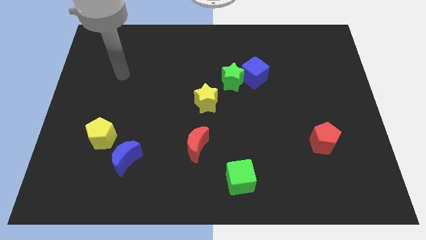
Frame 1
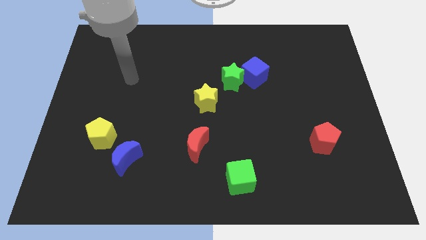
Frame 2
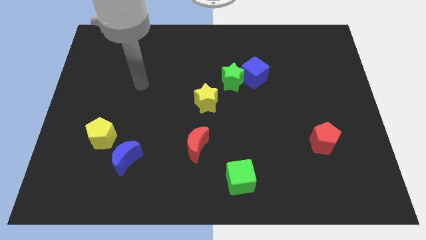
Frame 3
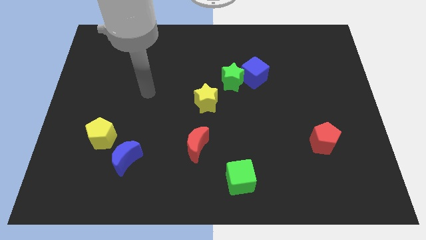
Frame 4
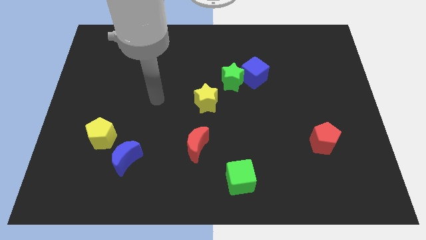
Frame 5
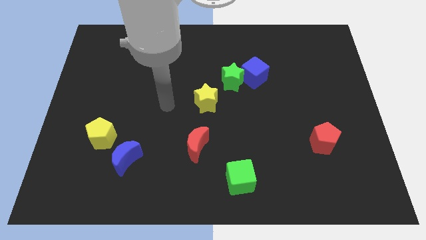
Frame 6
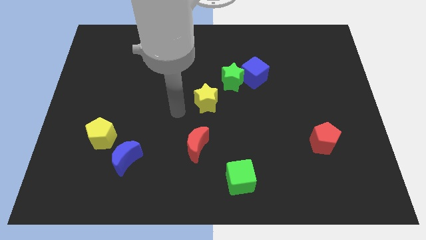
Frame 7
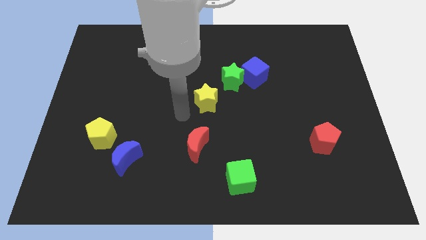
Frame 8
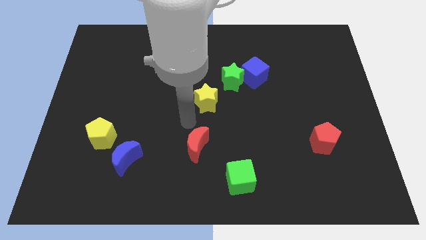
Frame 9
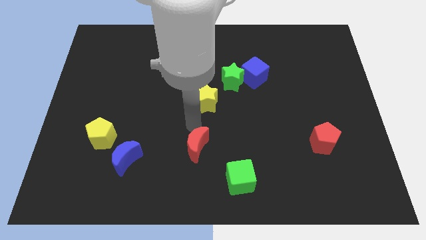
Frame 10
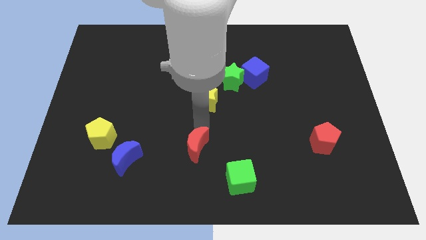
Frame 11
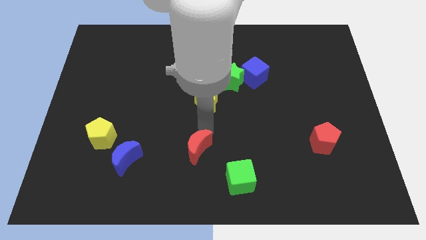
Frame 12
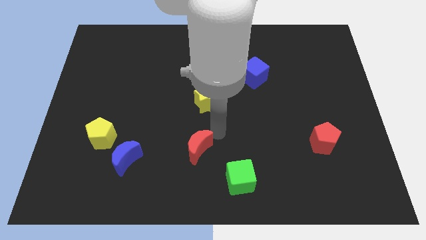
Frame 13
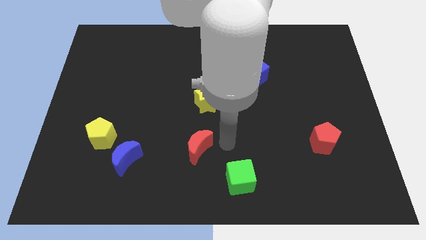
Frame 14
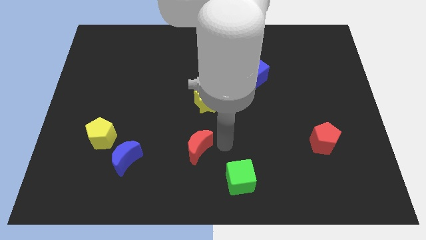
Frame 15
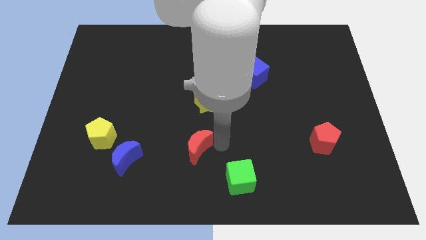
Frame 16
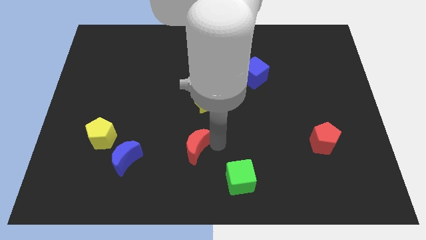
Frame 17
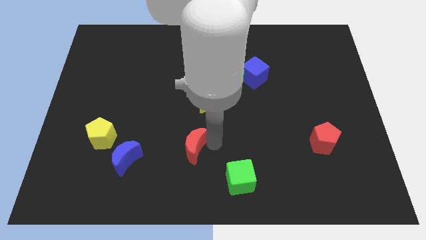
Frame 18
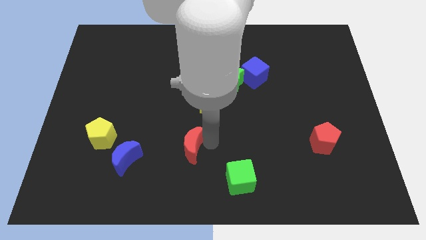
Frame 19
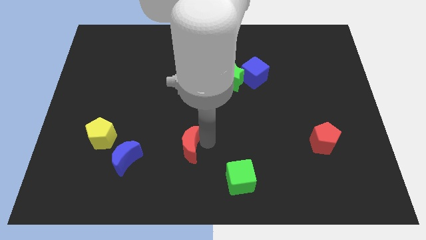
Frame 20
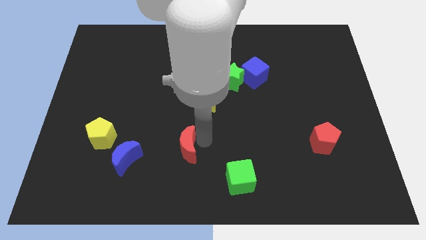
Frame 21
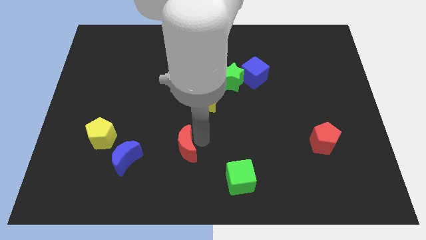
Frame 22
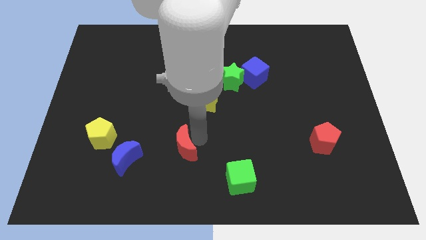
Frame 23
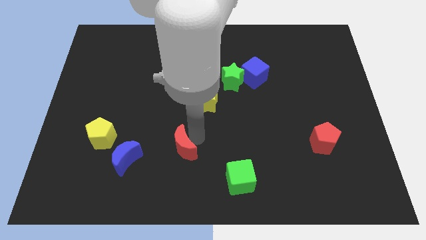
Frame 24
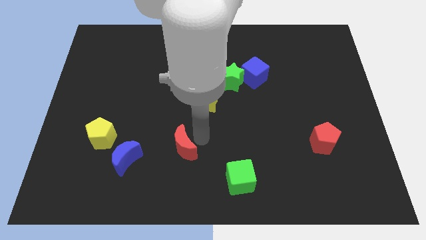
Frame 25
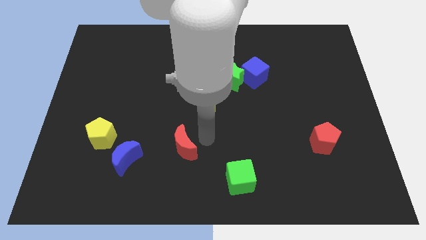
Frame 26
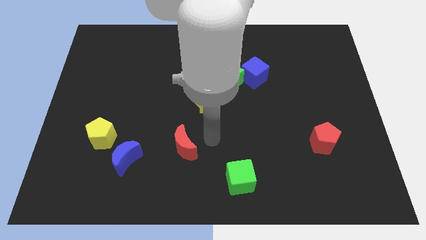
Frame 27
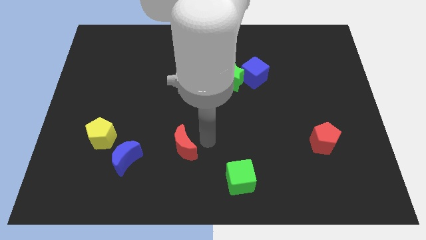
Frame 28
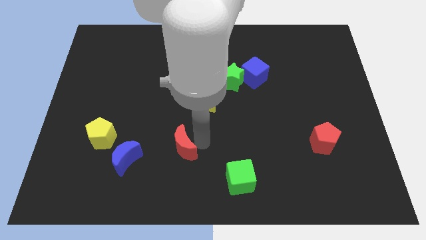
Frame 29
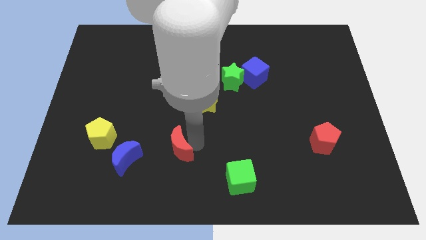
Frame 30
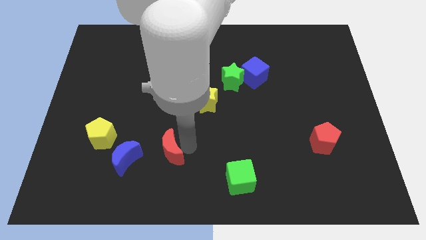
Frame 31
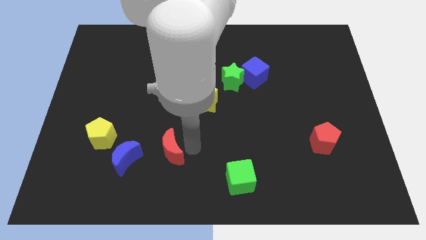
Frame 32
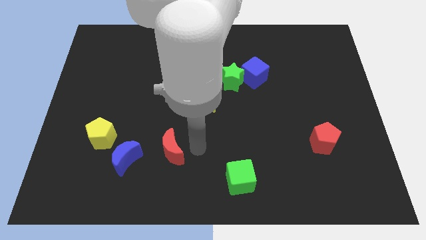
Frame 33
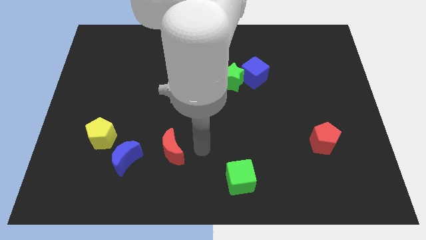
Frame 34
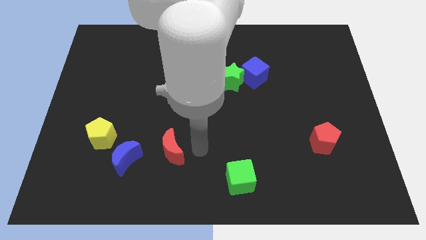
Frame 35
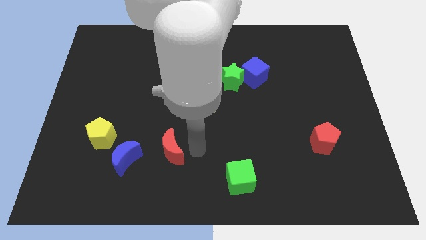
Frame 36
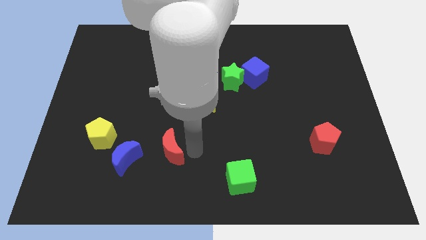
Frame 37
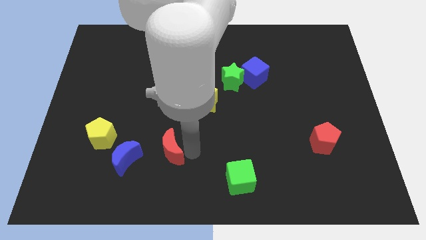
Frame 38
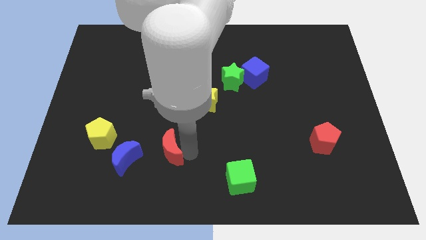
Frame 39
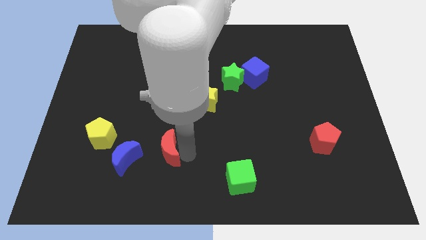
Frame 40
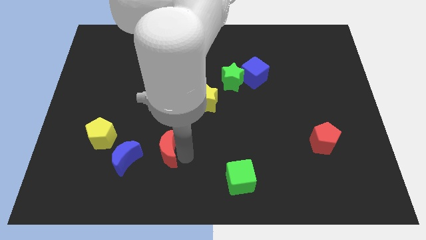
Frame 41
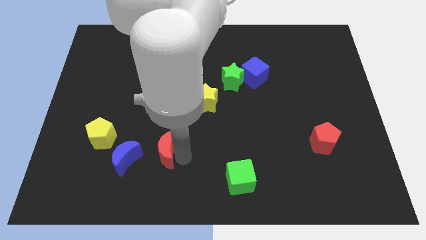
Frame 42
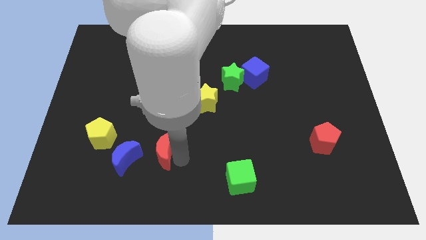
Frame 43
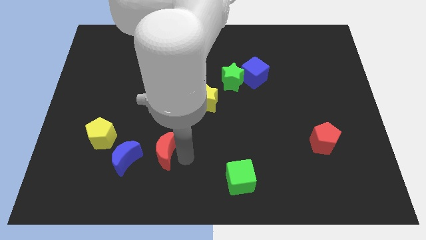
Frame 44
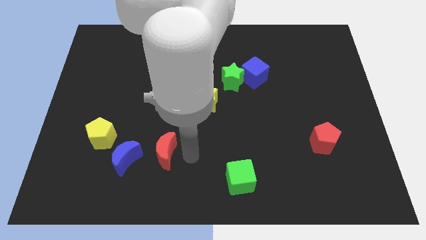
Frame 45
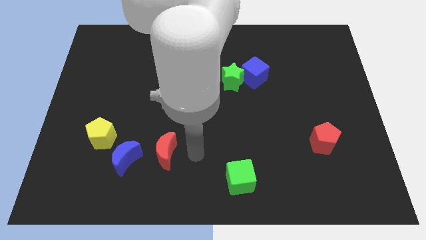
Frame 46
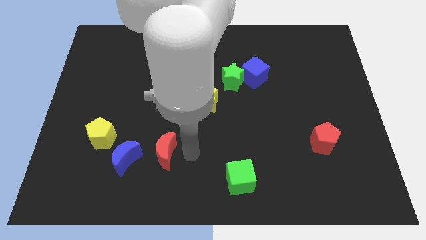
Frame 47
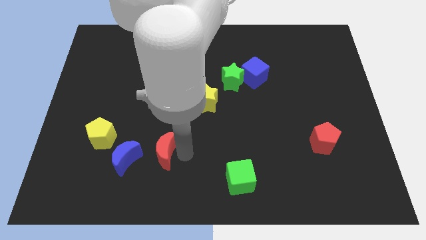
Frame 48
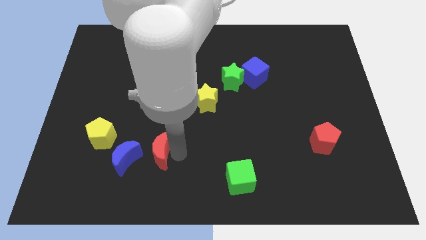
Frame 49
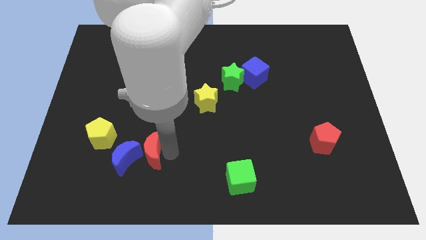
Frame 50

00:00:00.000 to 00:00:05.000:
slide the red moon to the blue moon

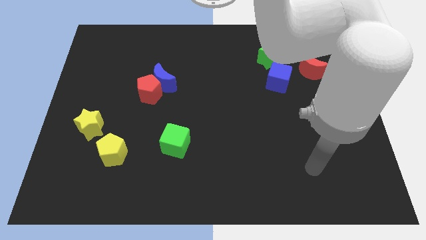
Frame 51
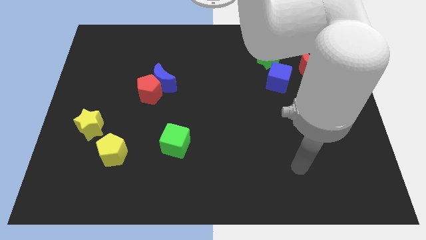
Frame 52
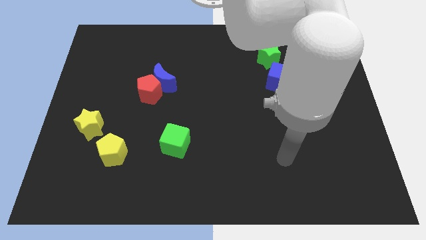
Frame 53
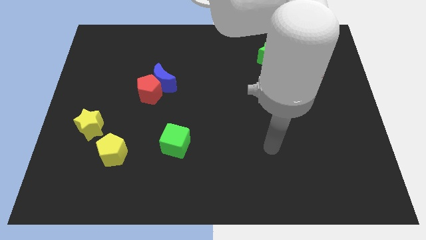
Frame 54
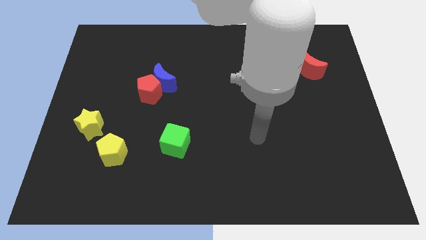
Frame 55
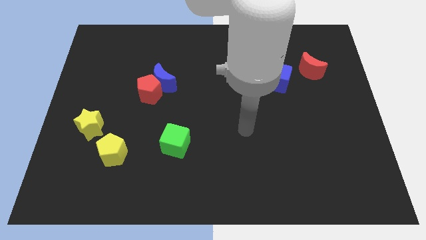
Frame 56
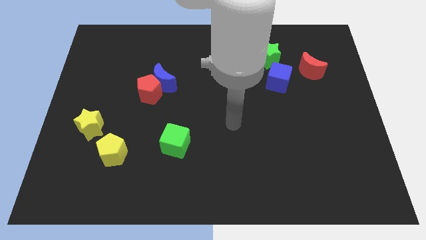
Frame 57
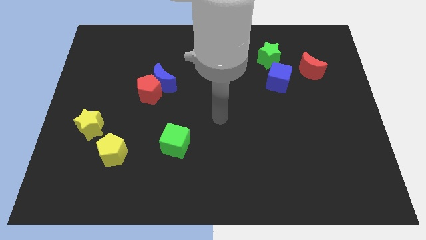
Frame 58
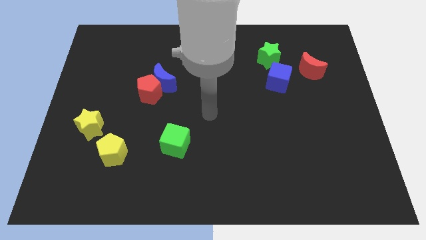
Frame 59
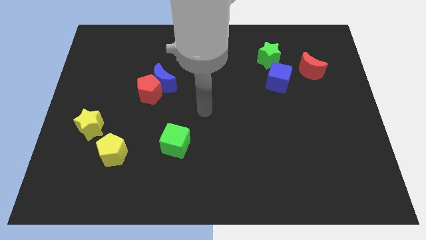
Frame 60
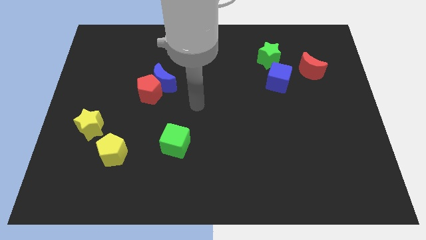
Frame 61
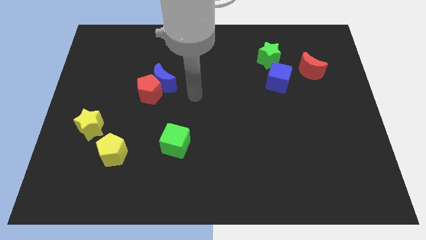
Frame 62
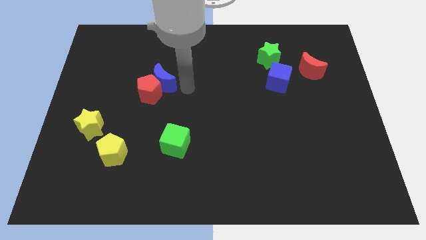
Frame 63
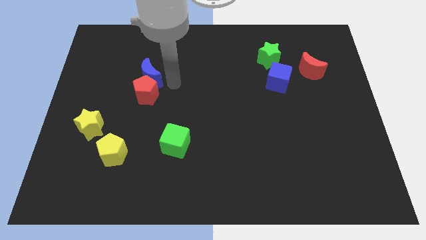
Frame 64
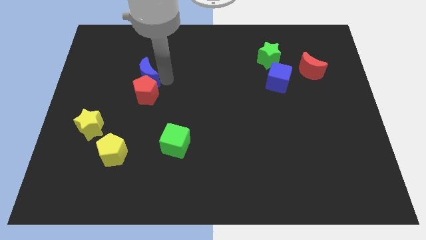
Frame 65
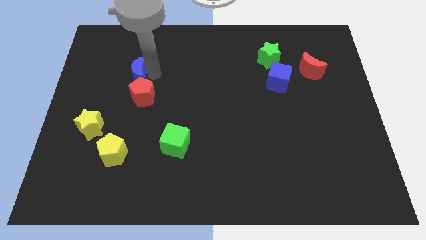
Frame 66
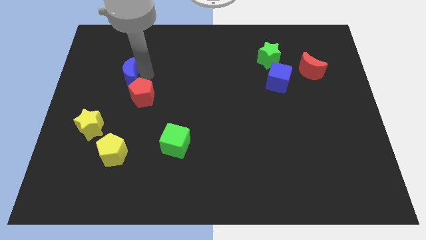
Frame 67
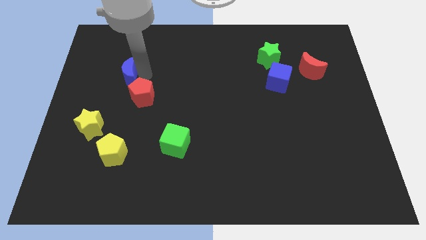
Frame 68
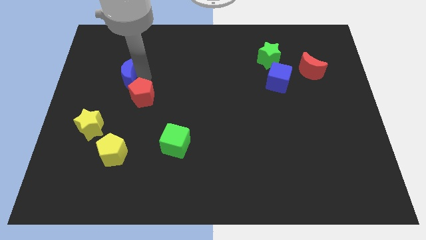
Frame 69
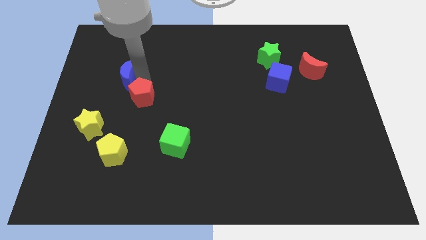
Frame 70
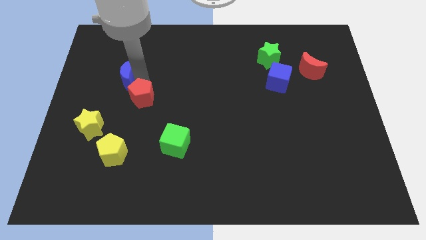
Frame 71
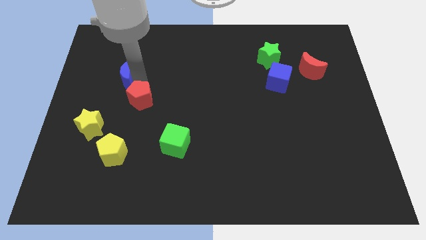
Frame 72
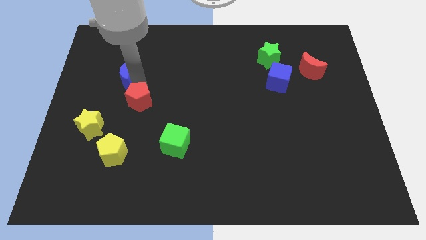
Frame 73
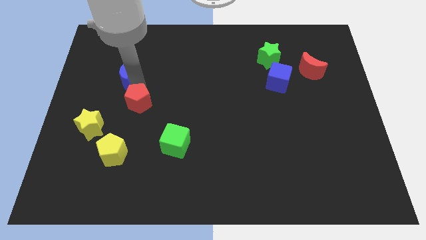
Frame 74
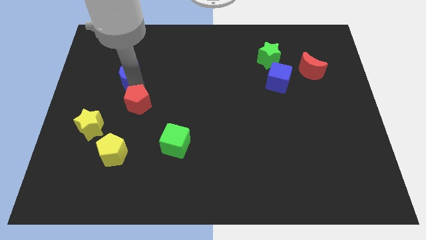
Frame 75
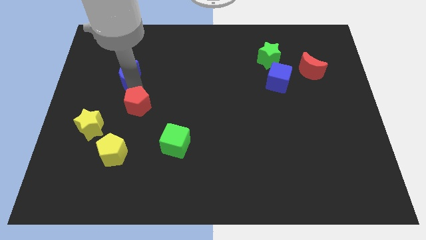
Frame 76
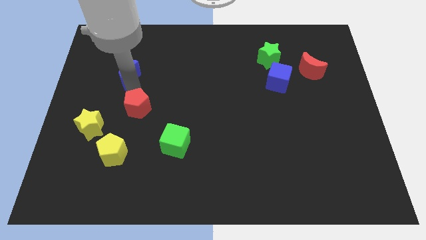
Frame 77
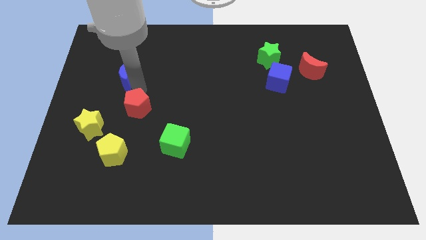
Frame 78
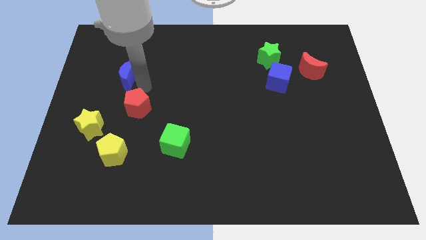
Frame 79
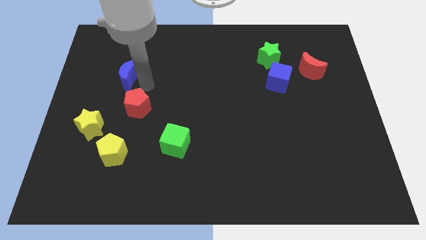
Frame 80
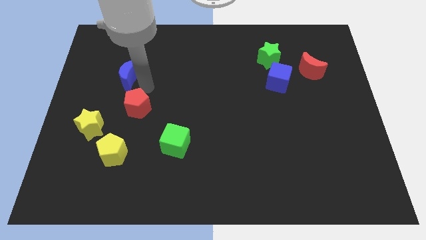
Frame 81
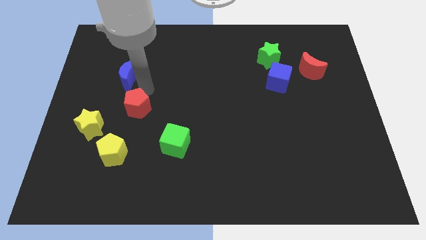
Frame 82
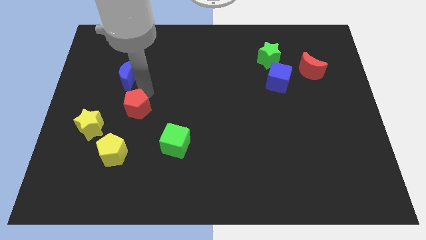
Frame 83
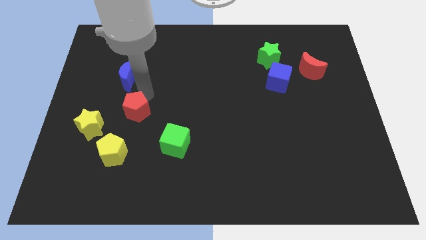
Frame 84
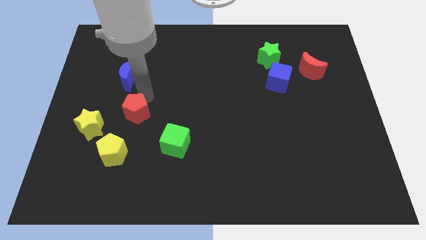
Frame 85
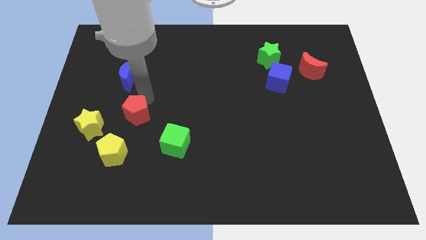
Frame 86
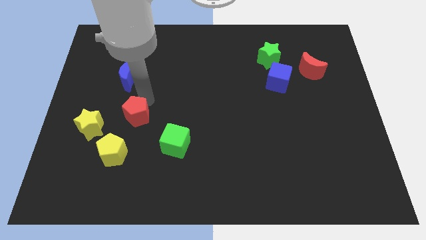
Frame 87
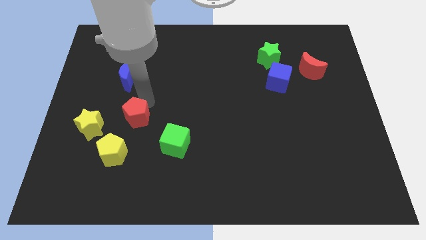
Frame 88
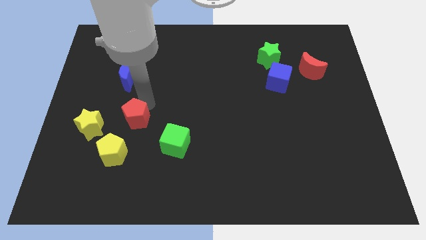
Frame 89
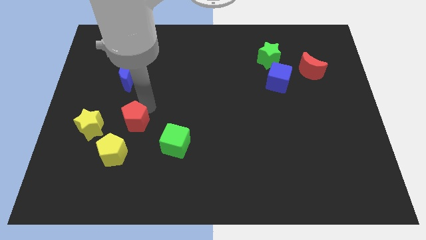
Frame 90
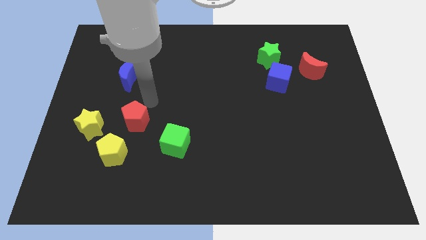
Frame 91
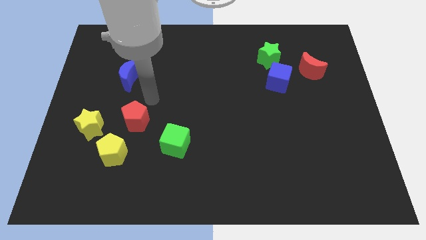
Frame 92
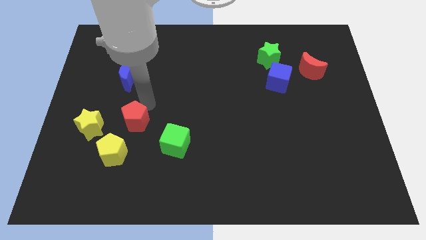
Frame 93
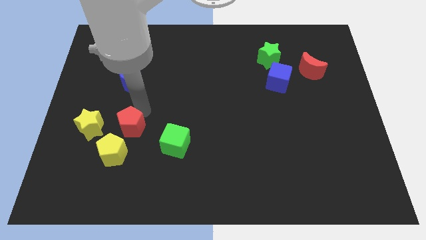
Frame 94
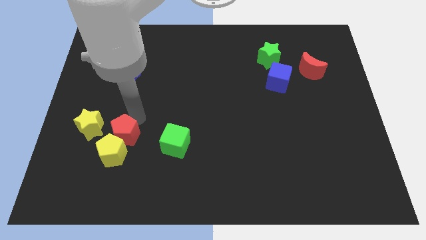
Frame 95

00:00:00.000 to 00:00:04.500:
move the red pentagon next to the yellow pentagon
